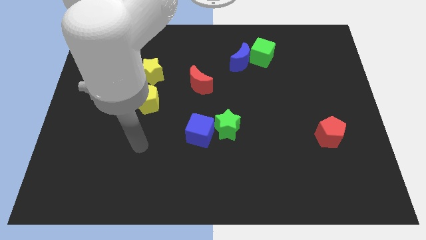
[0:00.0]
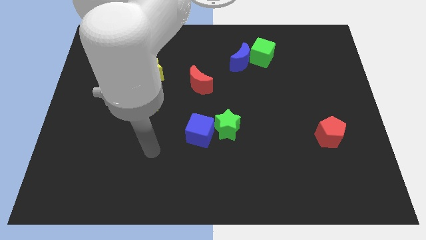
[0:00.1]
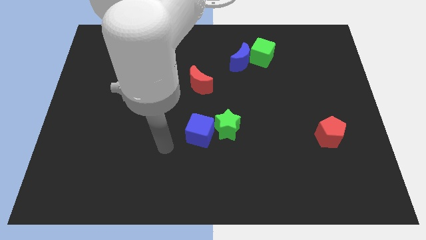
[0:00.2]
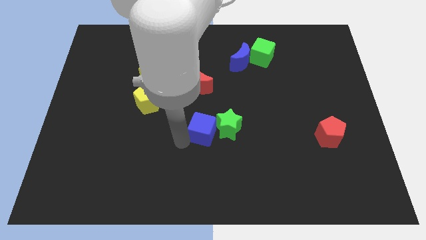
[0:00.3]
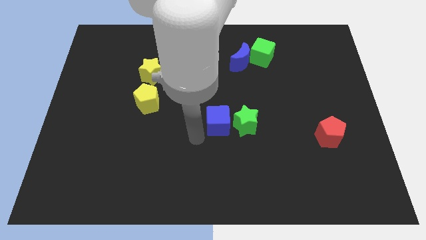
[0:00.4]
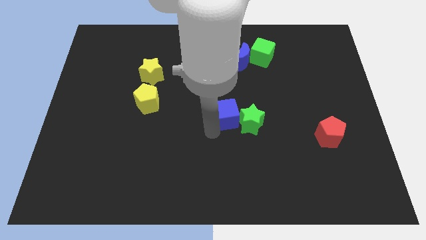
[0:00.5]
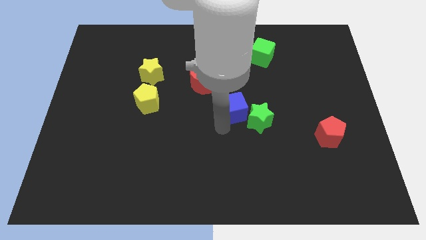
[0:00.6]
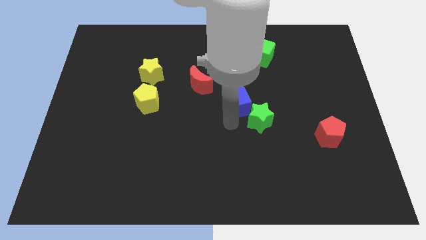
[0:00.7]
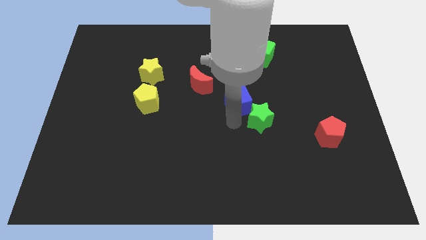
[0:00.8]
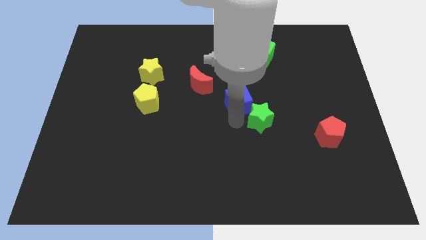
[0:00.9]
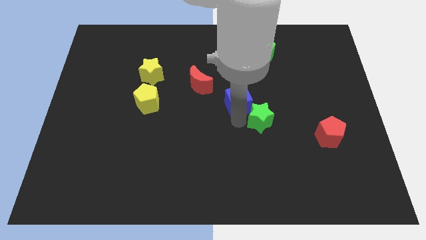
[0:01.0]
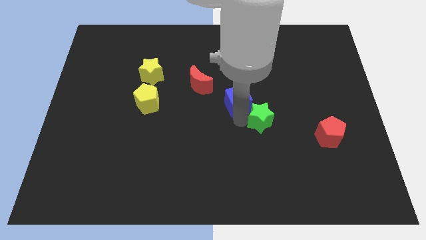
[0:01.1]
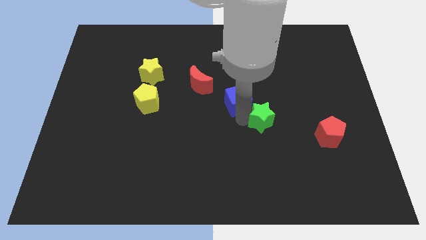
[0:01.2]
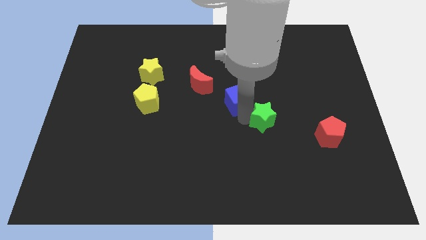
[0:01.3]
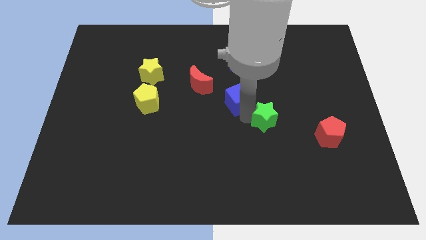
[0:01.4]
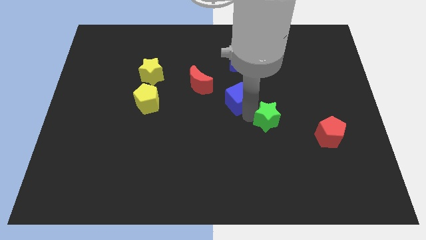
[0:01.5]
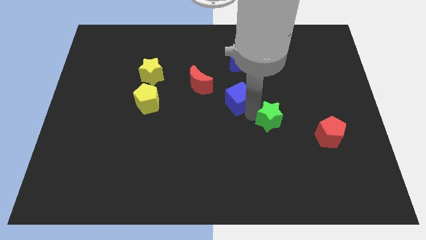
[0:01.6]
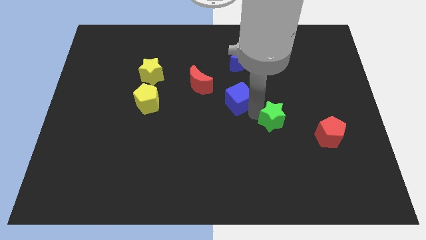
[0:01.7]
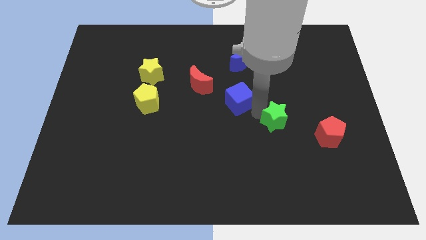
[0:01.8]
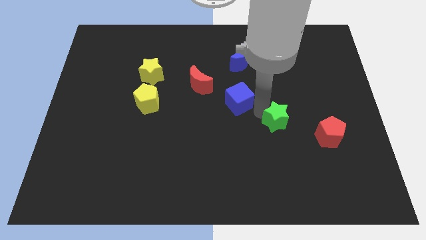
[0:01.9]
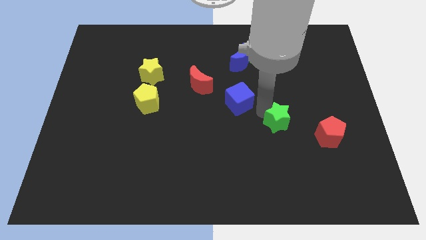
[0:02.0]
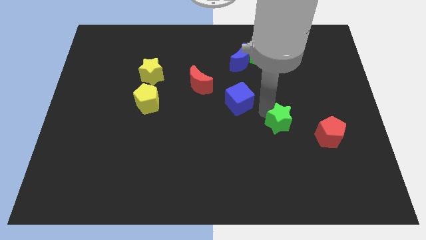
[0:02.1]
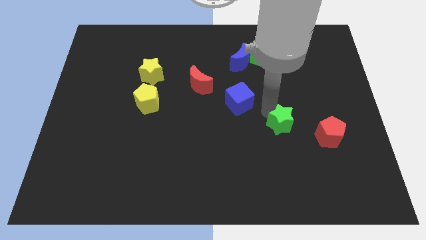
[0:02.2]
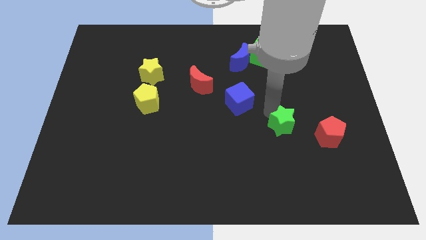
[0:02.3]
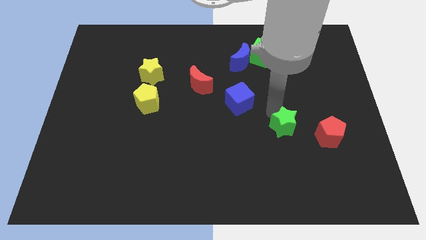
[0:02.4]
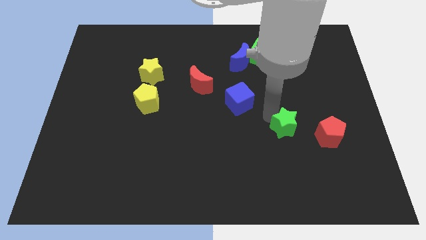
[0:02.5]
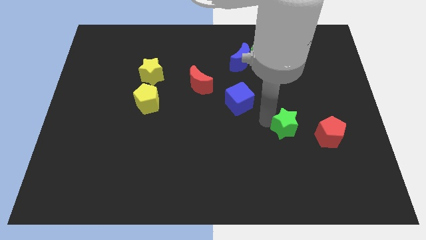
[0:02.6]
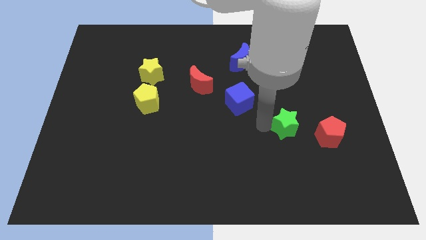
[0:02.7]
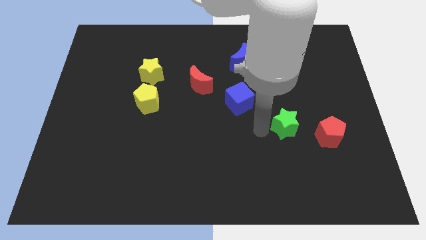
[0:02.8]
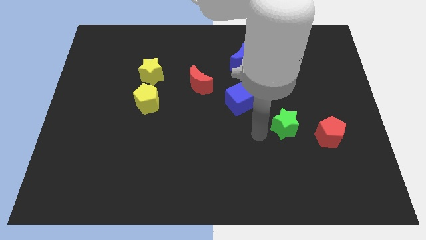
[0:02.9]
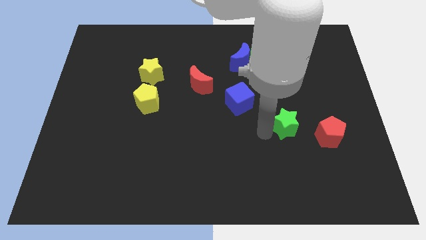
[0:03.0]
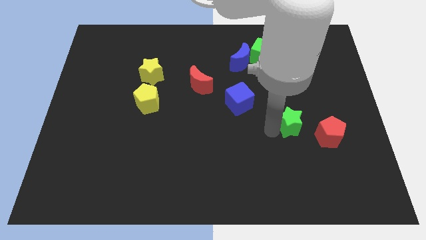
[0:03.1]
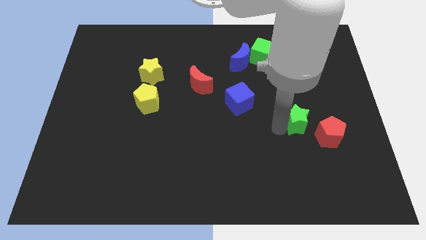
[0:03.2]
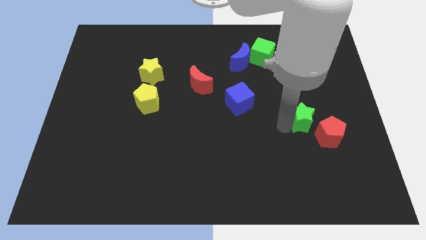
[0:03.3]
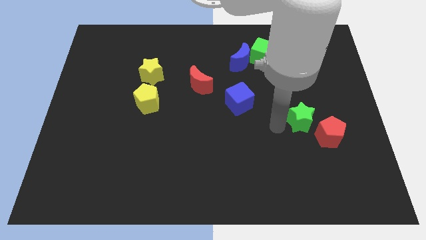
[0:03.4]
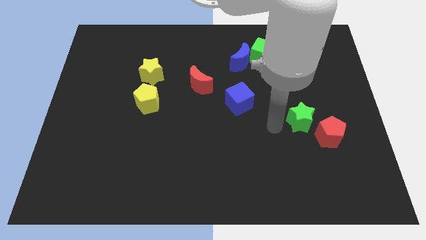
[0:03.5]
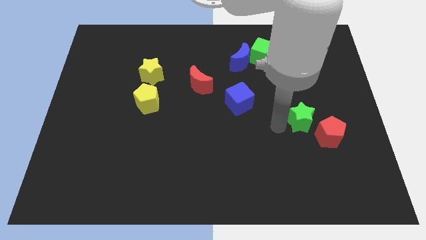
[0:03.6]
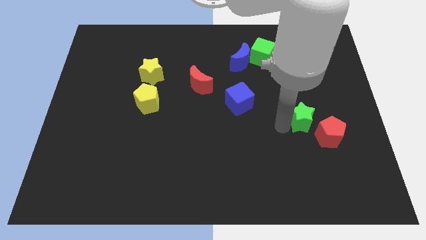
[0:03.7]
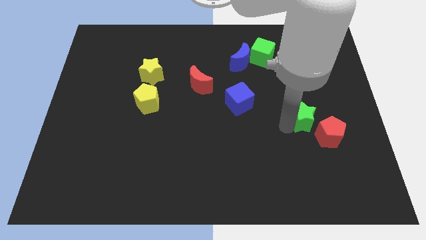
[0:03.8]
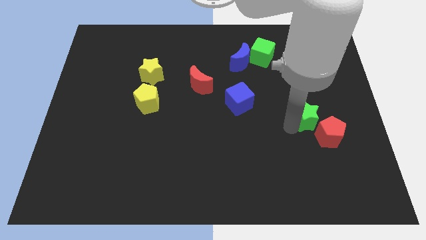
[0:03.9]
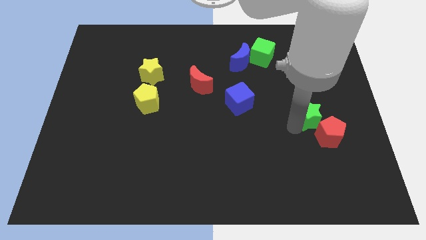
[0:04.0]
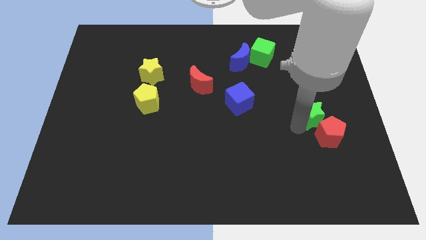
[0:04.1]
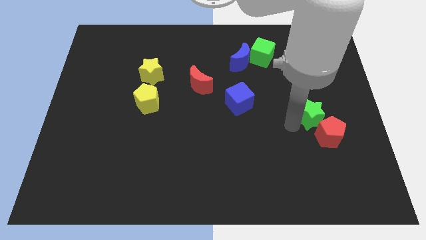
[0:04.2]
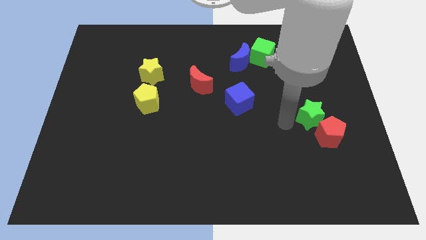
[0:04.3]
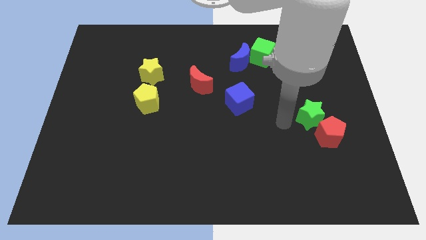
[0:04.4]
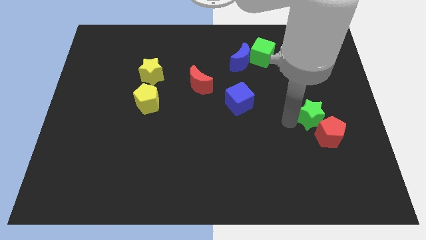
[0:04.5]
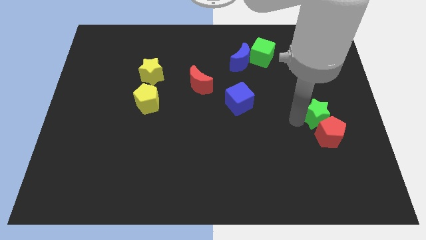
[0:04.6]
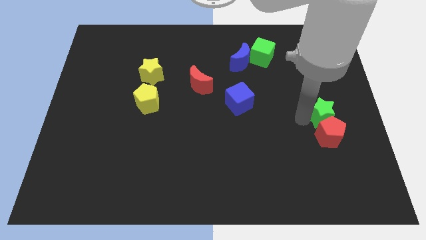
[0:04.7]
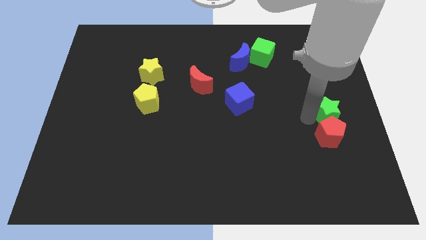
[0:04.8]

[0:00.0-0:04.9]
move the green star to the center right

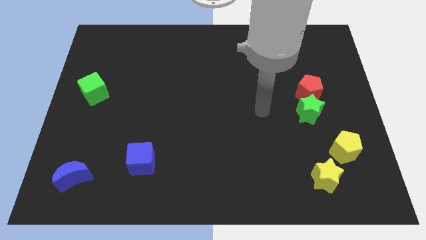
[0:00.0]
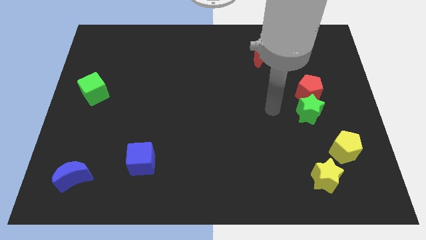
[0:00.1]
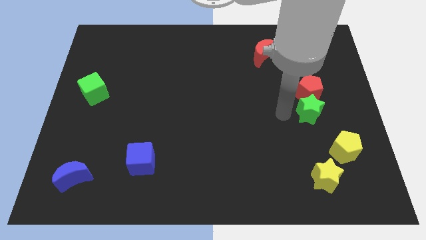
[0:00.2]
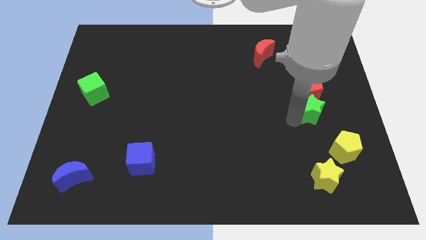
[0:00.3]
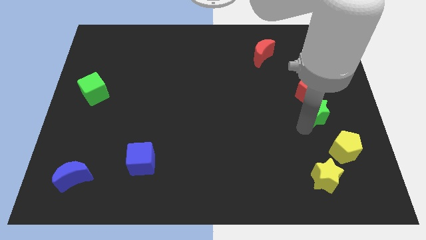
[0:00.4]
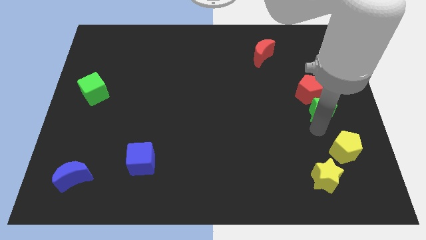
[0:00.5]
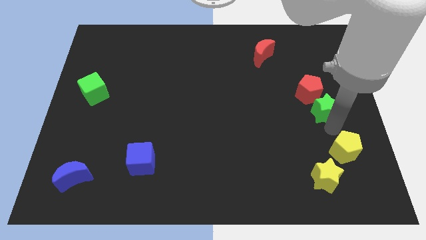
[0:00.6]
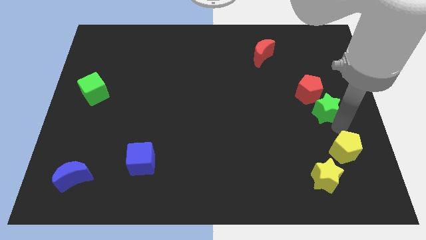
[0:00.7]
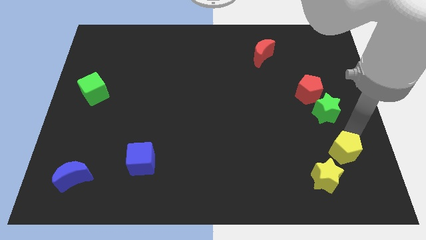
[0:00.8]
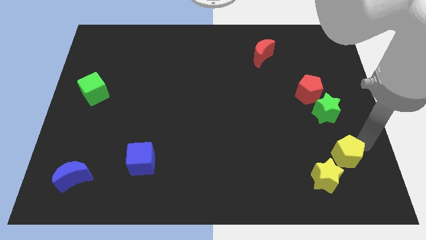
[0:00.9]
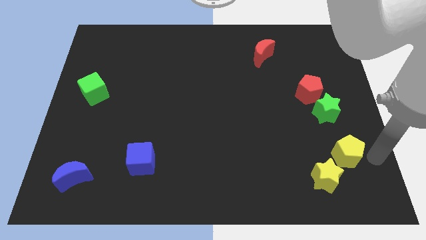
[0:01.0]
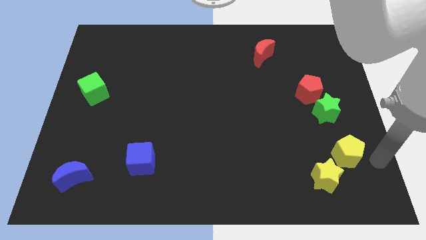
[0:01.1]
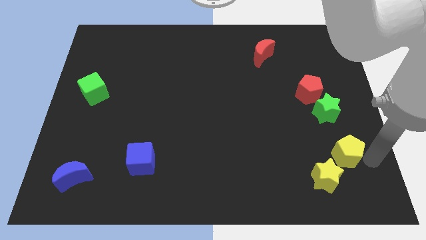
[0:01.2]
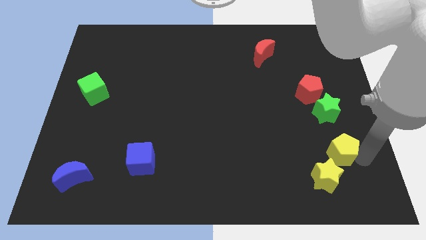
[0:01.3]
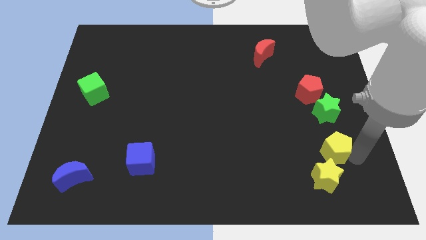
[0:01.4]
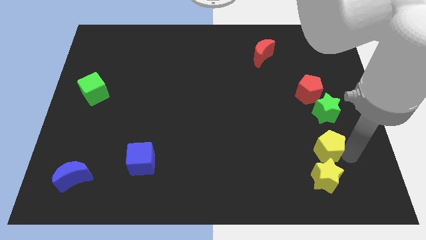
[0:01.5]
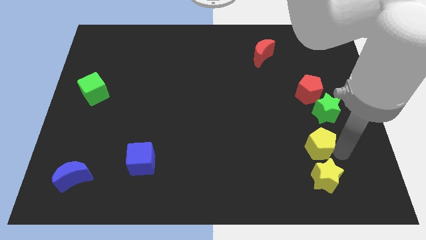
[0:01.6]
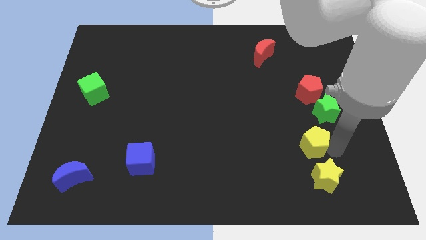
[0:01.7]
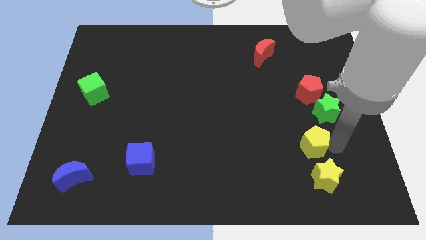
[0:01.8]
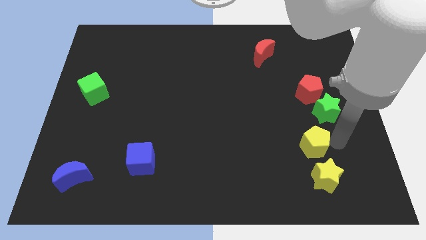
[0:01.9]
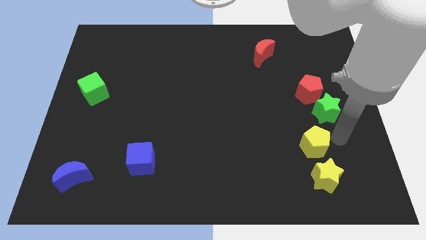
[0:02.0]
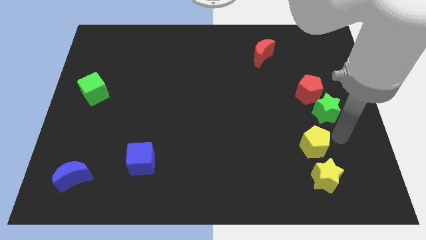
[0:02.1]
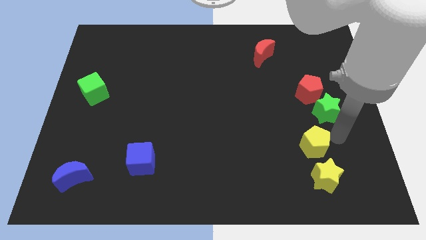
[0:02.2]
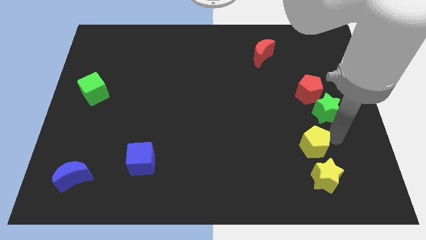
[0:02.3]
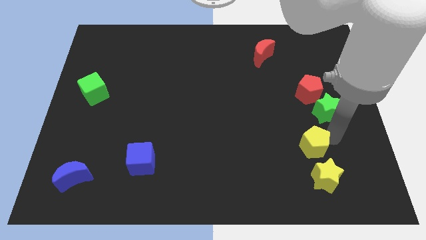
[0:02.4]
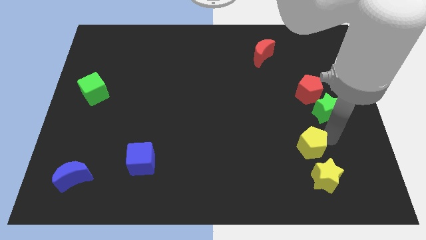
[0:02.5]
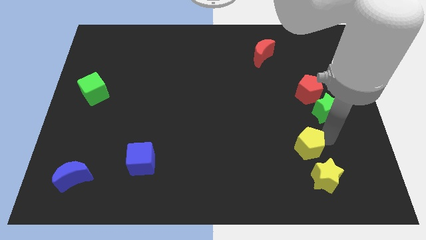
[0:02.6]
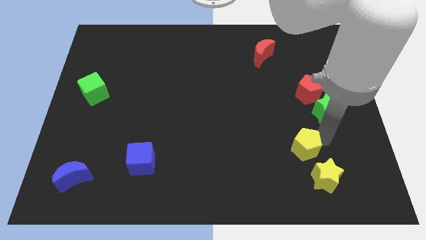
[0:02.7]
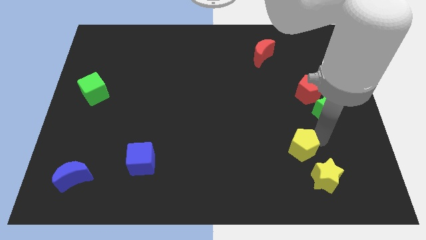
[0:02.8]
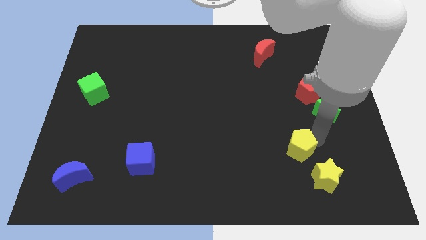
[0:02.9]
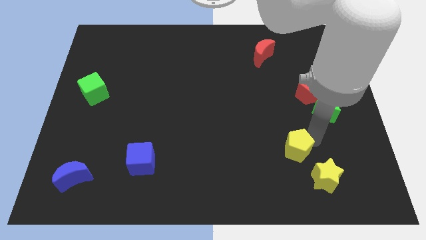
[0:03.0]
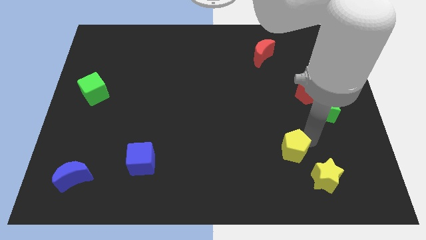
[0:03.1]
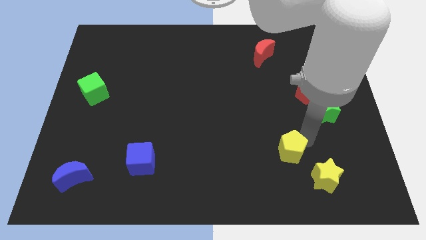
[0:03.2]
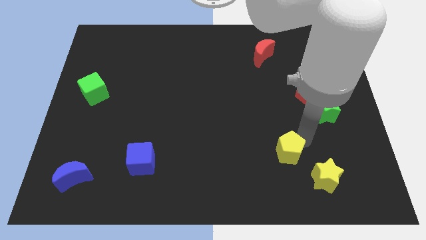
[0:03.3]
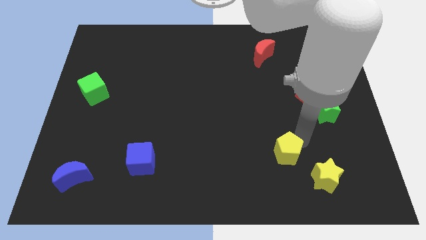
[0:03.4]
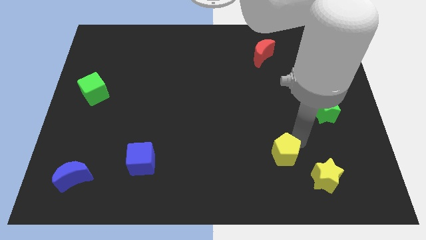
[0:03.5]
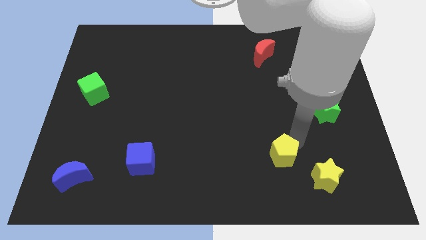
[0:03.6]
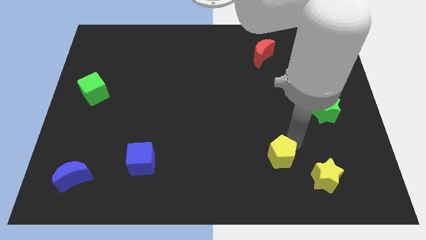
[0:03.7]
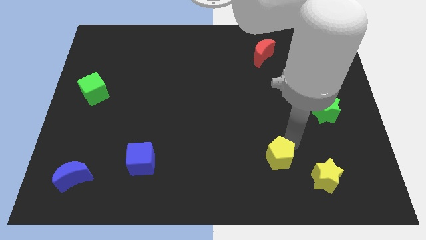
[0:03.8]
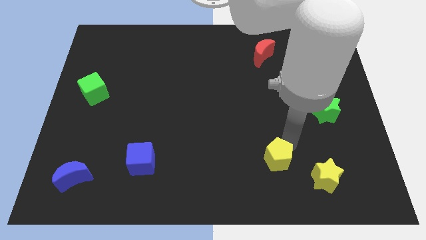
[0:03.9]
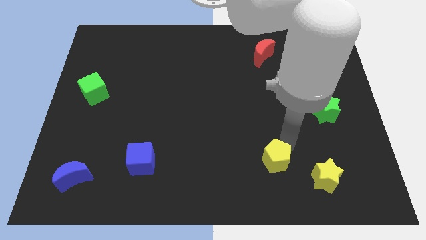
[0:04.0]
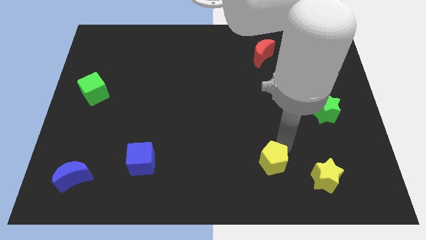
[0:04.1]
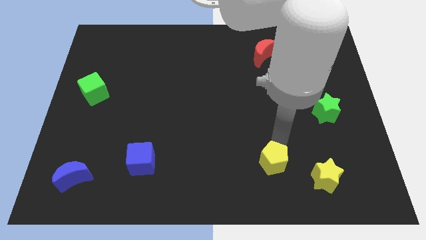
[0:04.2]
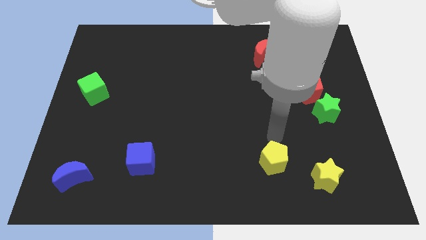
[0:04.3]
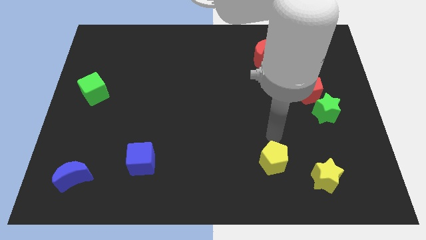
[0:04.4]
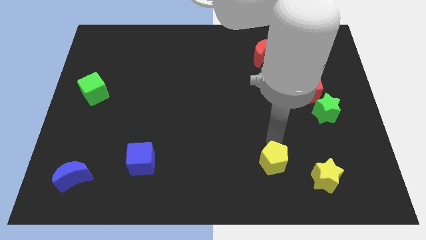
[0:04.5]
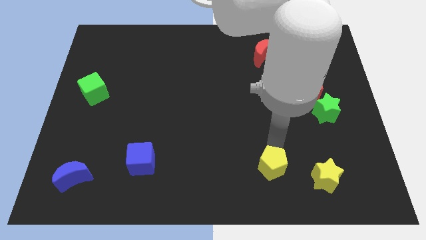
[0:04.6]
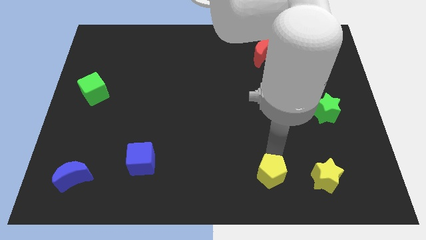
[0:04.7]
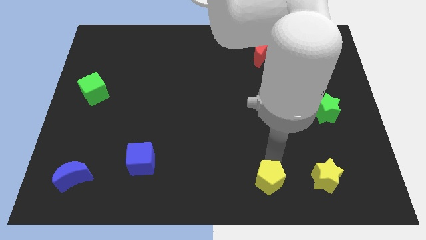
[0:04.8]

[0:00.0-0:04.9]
push the yellow pentagon to the bottom
